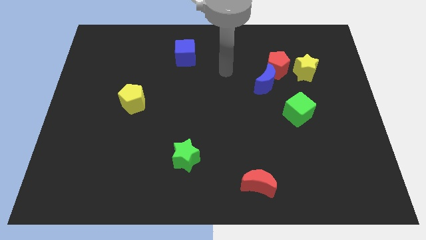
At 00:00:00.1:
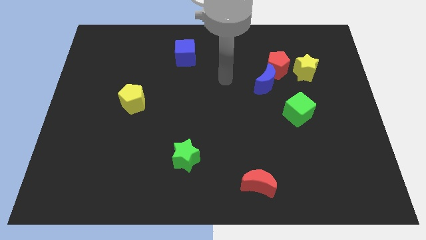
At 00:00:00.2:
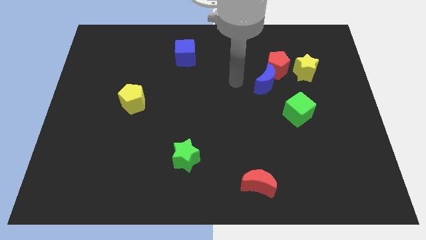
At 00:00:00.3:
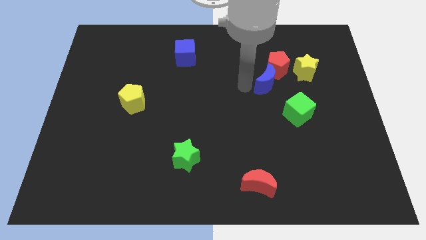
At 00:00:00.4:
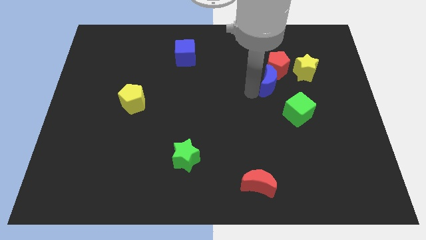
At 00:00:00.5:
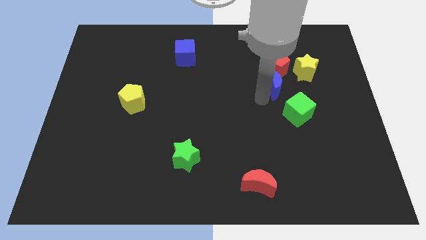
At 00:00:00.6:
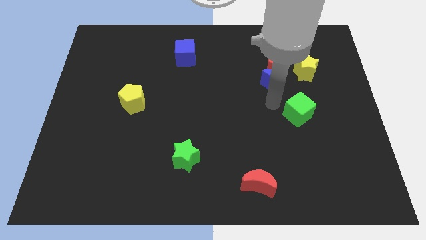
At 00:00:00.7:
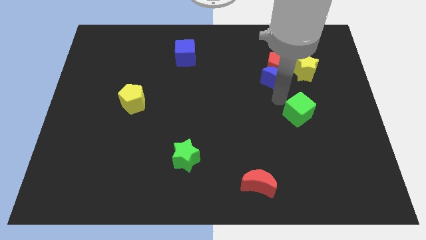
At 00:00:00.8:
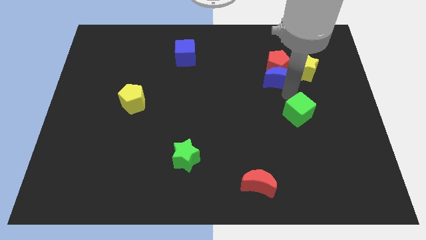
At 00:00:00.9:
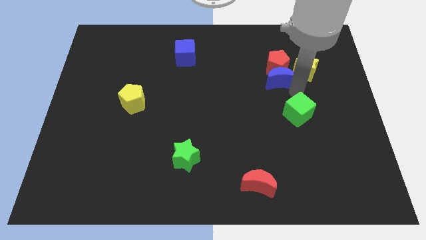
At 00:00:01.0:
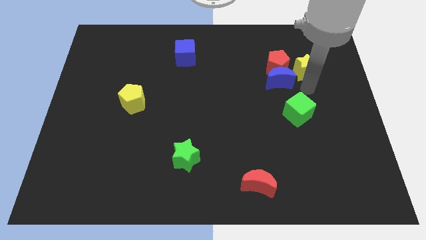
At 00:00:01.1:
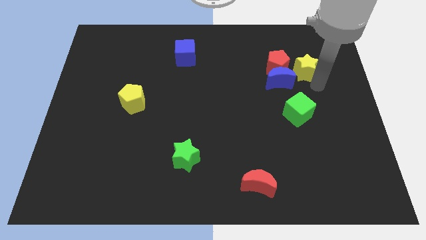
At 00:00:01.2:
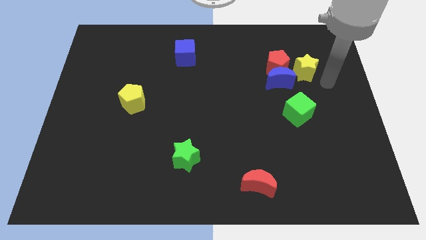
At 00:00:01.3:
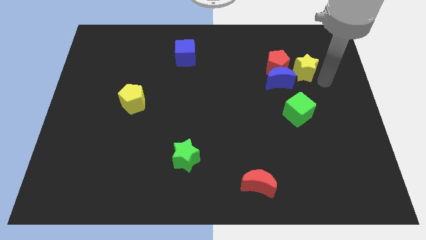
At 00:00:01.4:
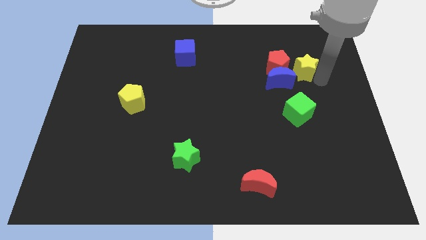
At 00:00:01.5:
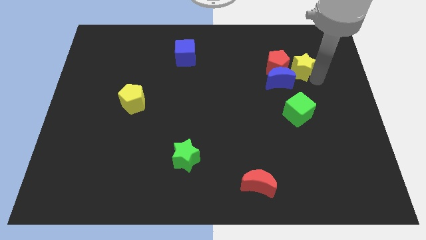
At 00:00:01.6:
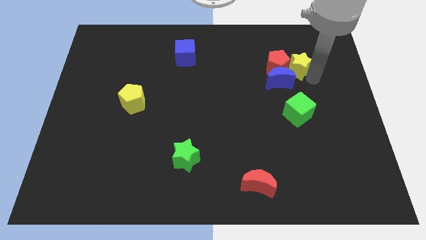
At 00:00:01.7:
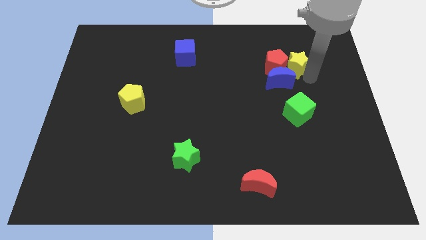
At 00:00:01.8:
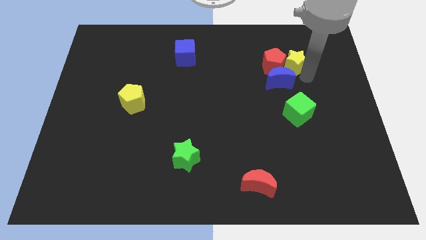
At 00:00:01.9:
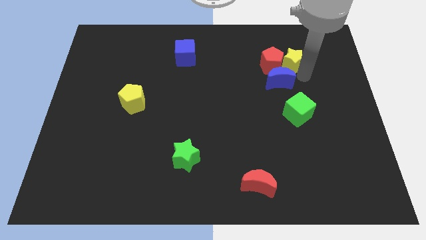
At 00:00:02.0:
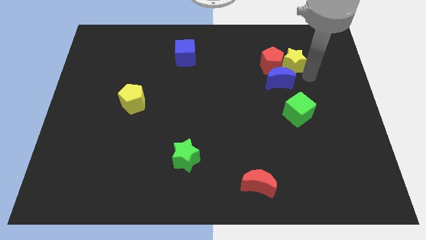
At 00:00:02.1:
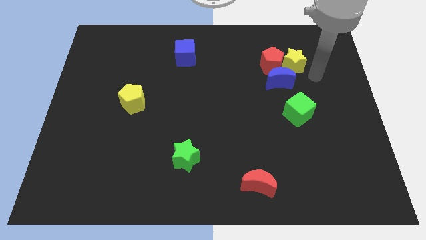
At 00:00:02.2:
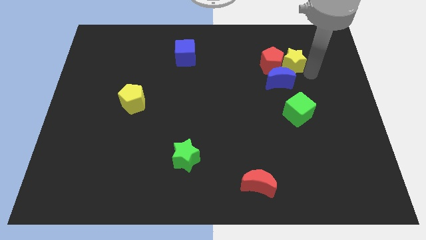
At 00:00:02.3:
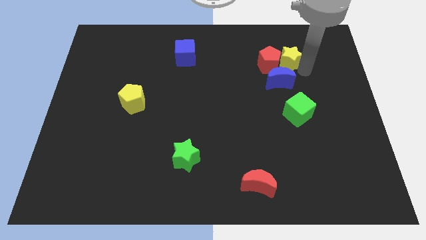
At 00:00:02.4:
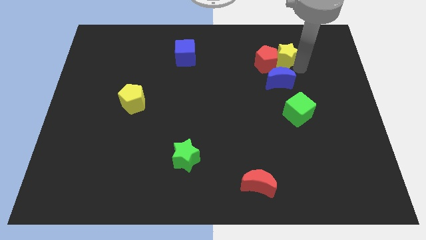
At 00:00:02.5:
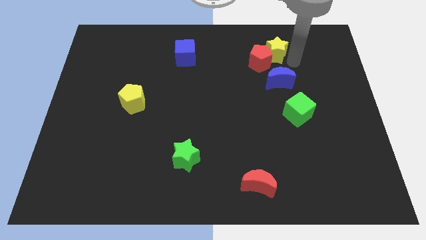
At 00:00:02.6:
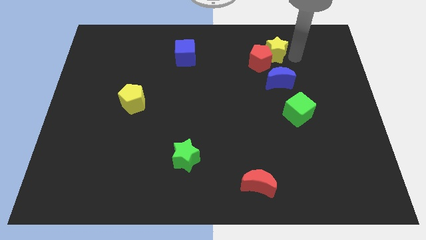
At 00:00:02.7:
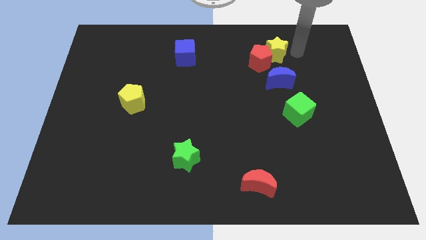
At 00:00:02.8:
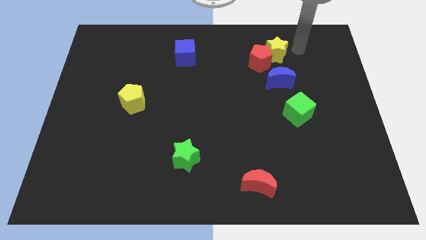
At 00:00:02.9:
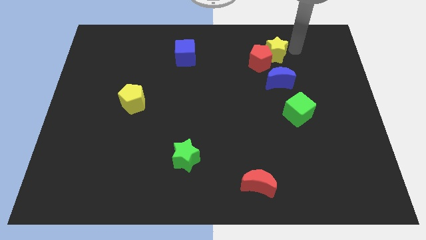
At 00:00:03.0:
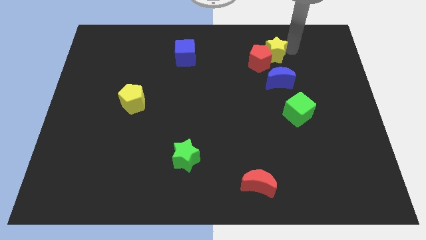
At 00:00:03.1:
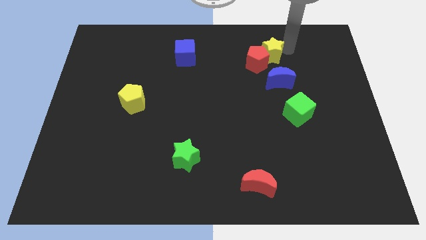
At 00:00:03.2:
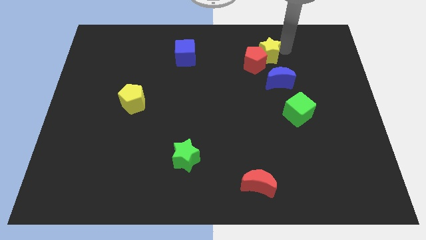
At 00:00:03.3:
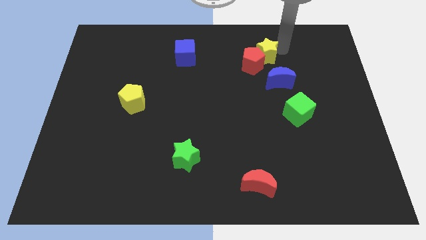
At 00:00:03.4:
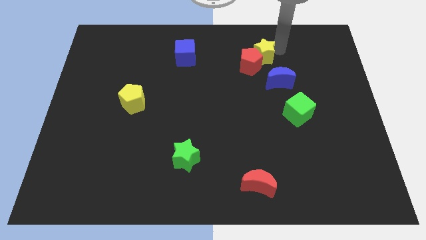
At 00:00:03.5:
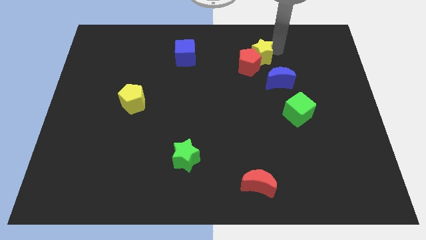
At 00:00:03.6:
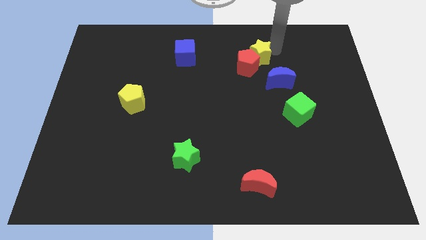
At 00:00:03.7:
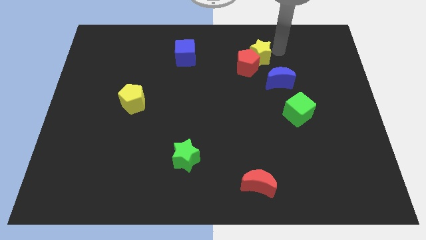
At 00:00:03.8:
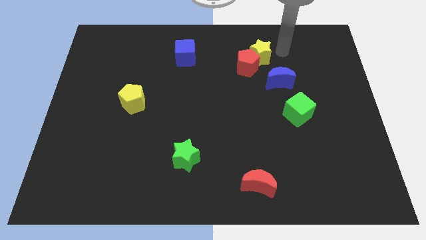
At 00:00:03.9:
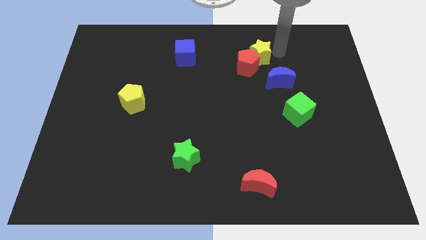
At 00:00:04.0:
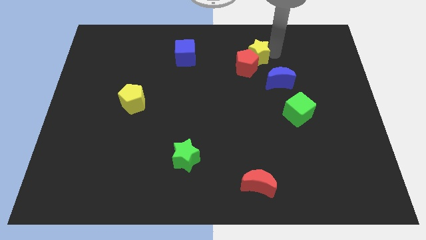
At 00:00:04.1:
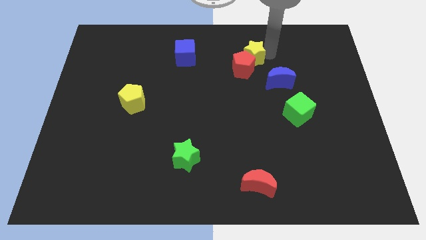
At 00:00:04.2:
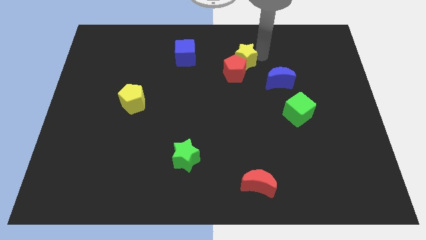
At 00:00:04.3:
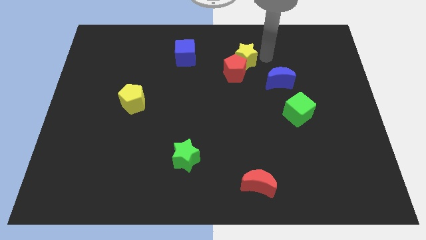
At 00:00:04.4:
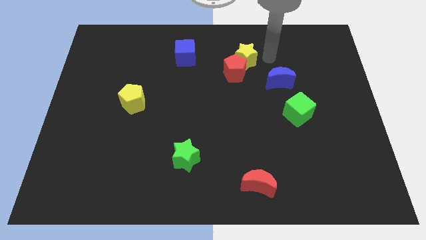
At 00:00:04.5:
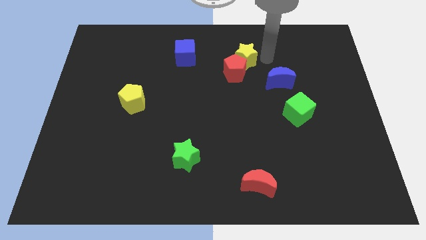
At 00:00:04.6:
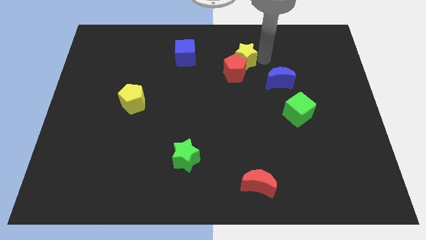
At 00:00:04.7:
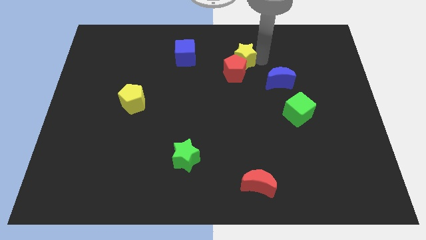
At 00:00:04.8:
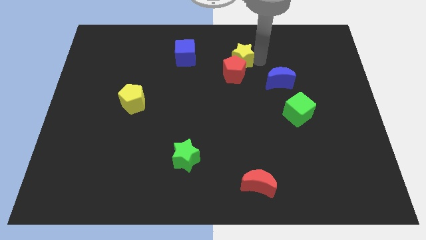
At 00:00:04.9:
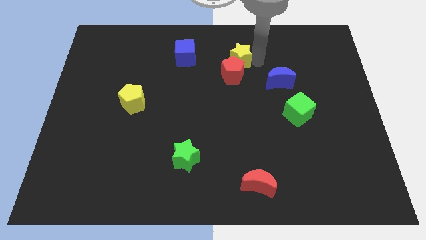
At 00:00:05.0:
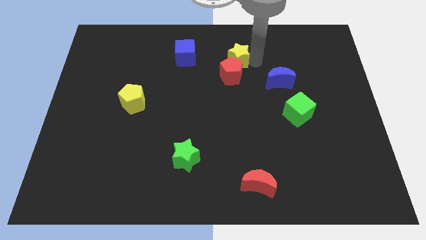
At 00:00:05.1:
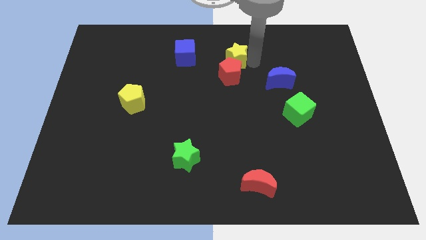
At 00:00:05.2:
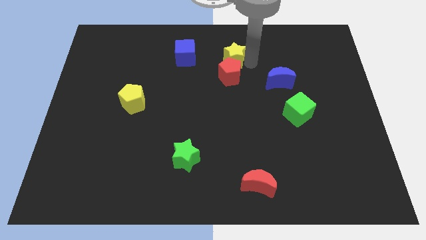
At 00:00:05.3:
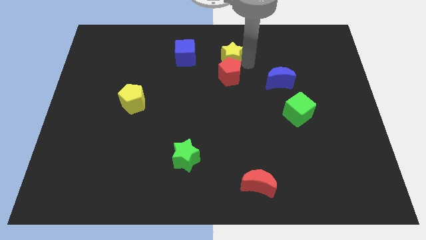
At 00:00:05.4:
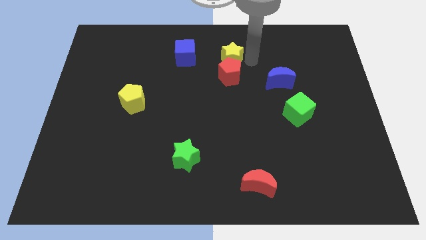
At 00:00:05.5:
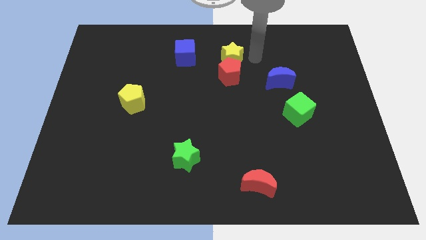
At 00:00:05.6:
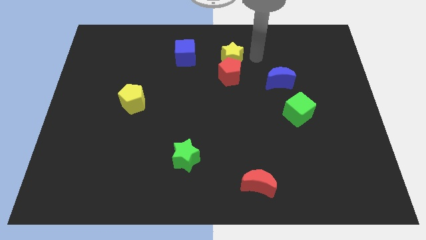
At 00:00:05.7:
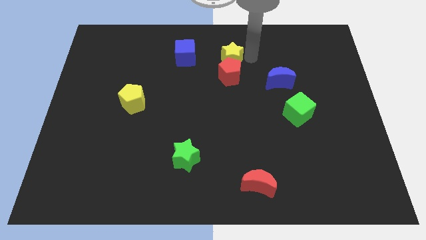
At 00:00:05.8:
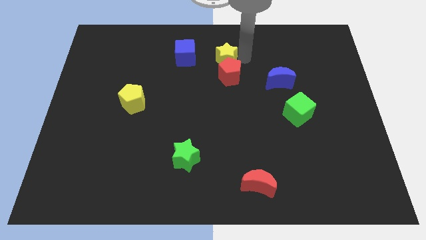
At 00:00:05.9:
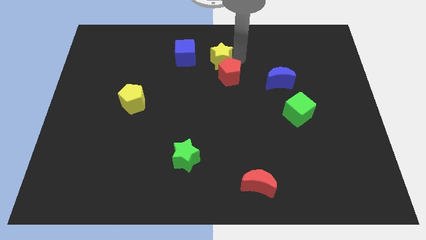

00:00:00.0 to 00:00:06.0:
push the yellow star left

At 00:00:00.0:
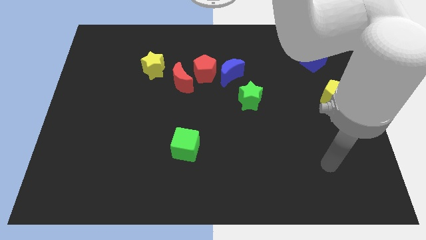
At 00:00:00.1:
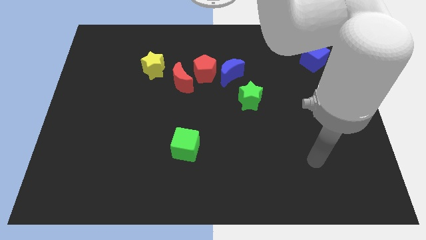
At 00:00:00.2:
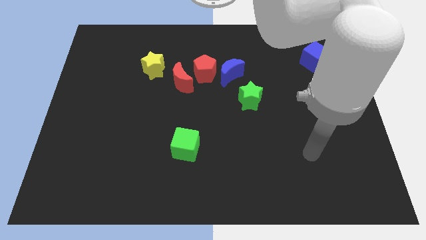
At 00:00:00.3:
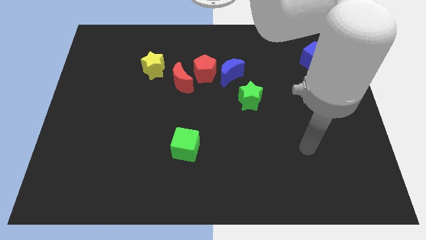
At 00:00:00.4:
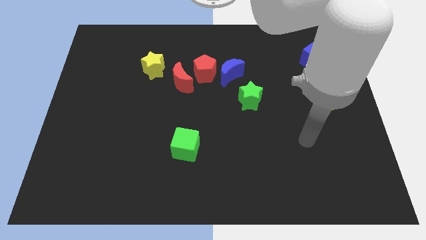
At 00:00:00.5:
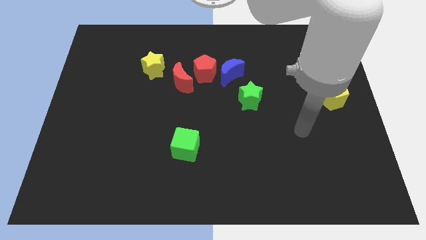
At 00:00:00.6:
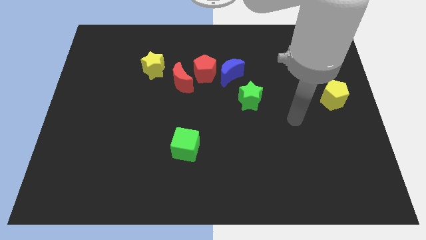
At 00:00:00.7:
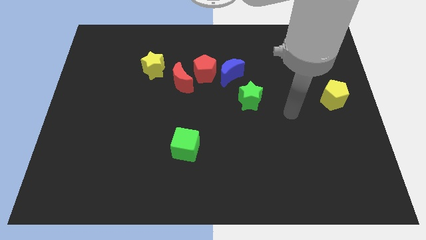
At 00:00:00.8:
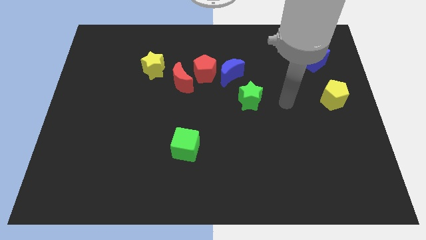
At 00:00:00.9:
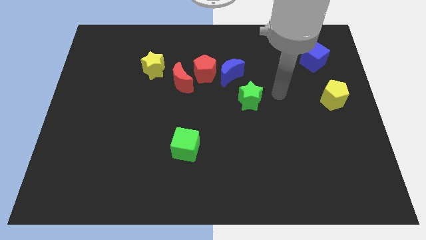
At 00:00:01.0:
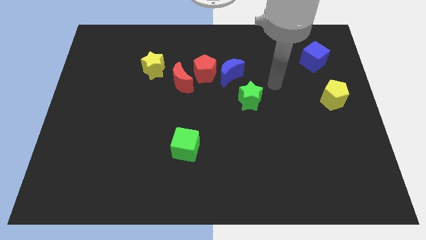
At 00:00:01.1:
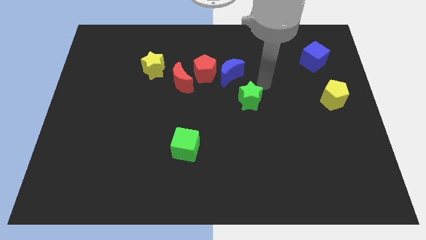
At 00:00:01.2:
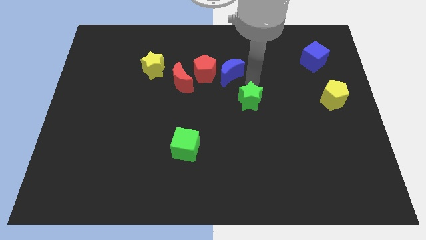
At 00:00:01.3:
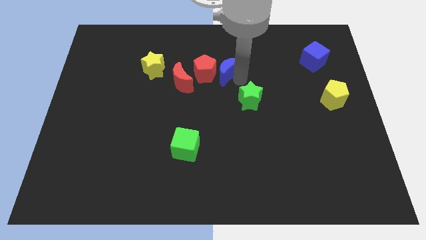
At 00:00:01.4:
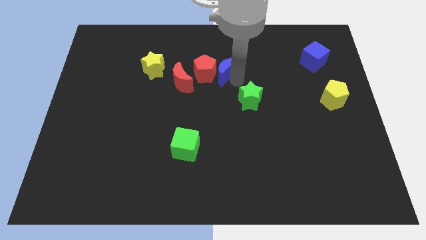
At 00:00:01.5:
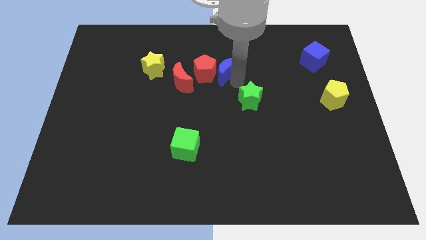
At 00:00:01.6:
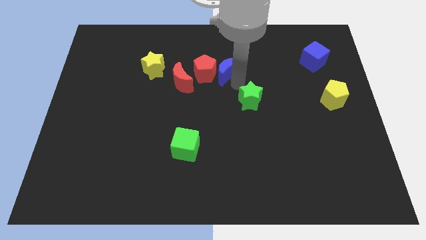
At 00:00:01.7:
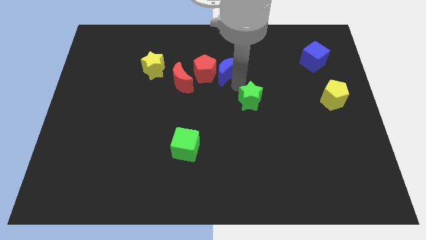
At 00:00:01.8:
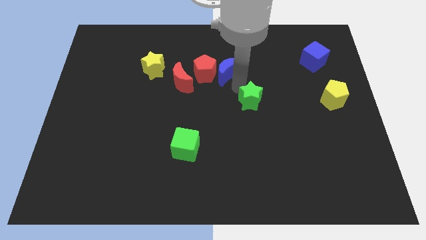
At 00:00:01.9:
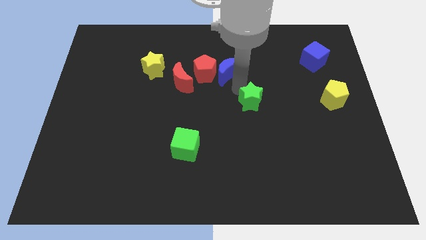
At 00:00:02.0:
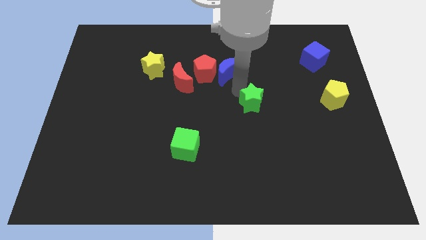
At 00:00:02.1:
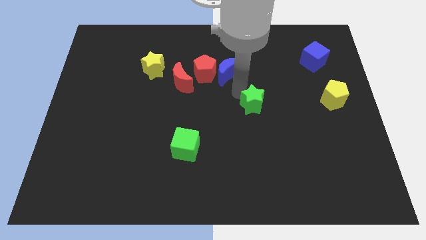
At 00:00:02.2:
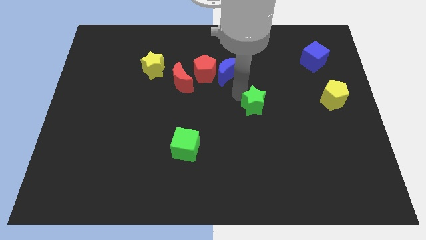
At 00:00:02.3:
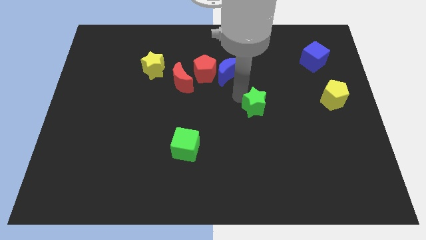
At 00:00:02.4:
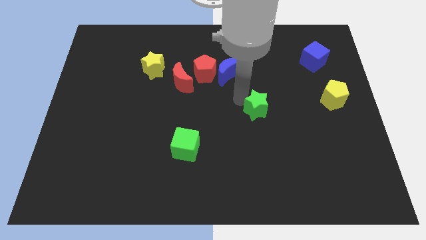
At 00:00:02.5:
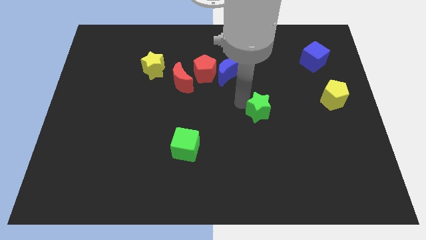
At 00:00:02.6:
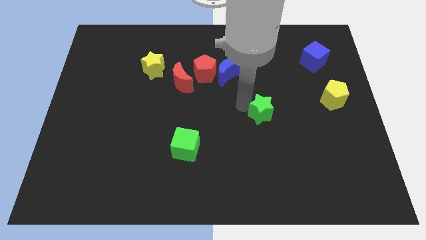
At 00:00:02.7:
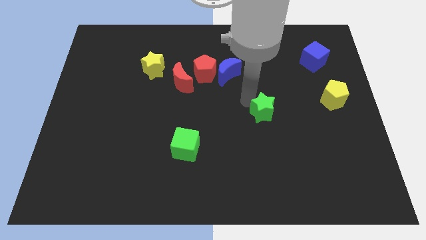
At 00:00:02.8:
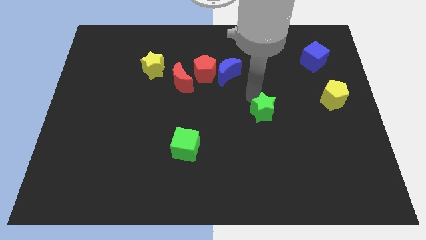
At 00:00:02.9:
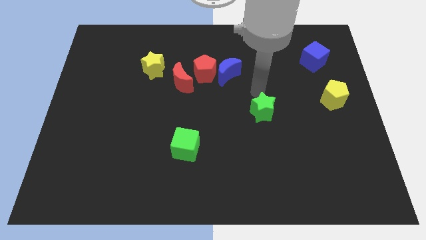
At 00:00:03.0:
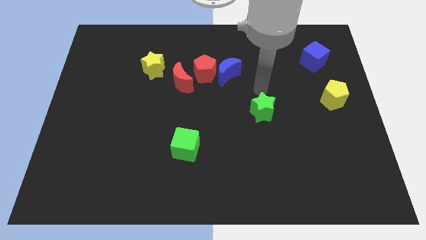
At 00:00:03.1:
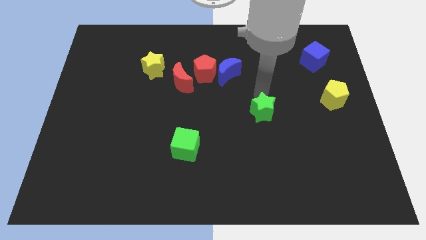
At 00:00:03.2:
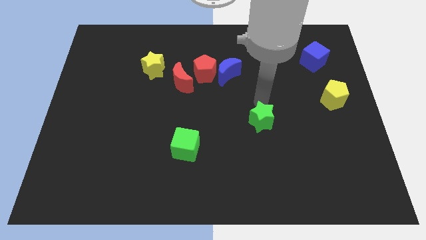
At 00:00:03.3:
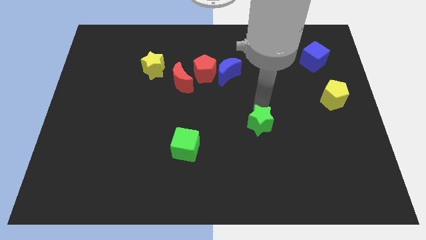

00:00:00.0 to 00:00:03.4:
slightly push the green star down
